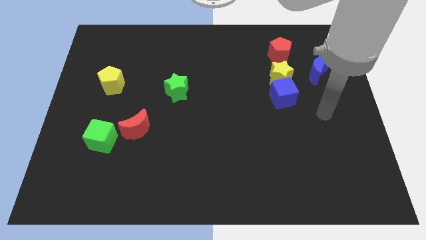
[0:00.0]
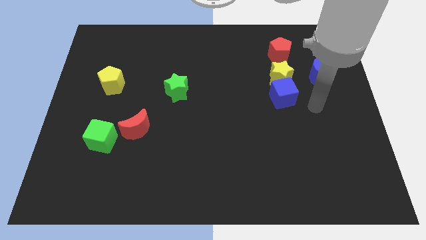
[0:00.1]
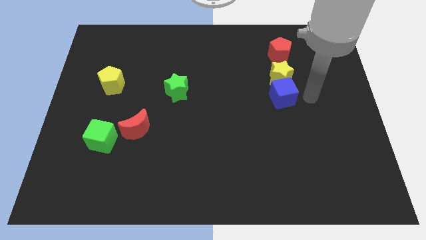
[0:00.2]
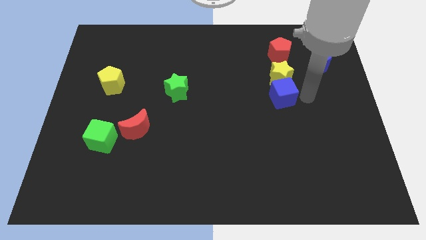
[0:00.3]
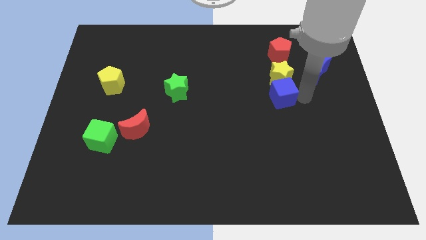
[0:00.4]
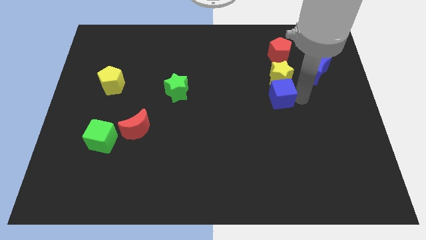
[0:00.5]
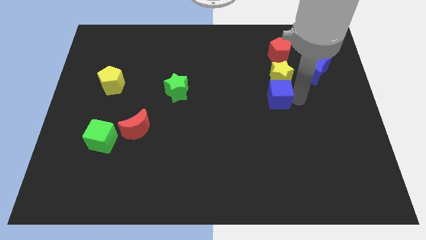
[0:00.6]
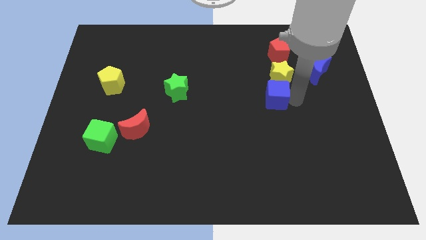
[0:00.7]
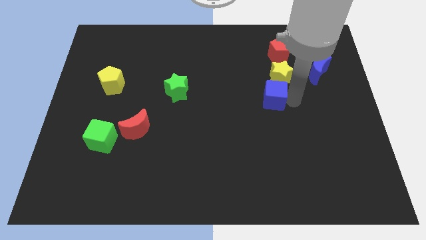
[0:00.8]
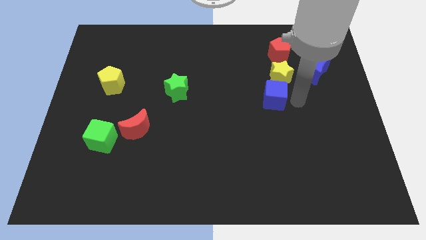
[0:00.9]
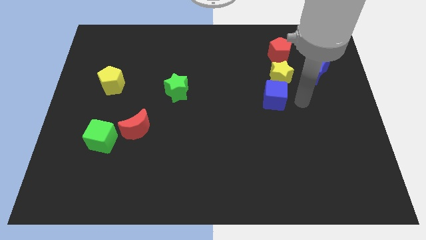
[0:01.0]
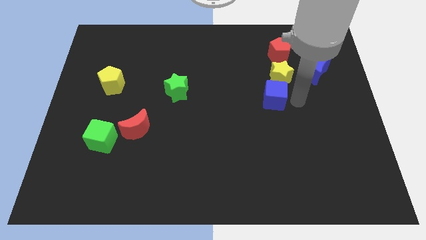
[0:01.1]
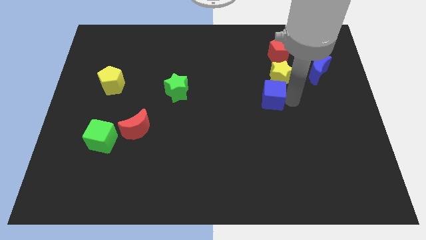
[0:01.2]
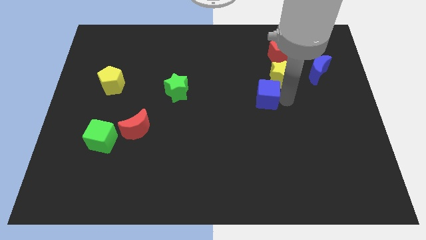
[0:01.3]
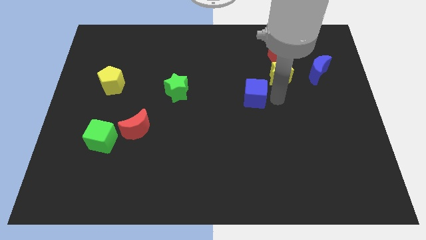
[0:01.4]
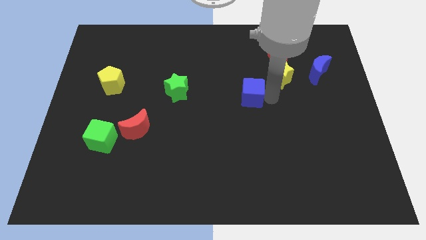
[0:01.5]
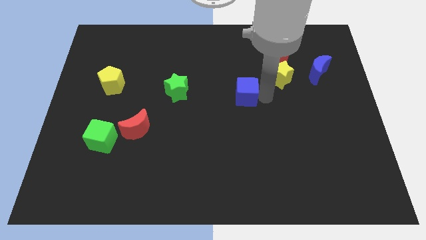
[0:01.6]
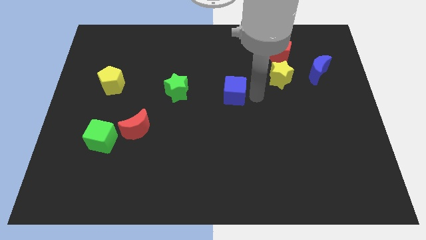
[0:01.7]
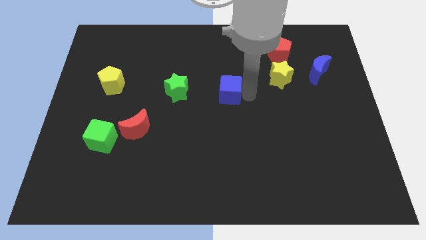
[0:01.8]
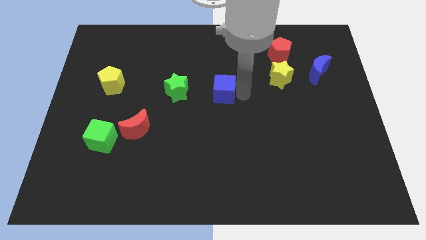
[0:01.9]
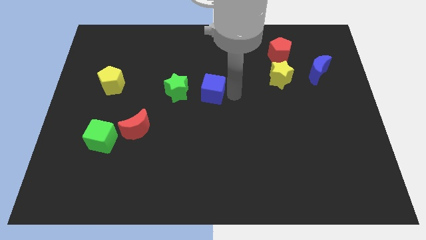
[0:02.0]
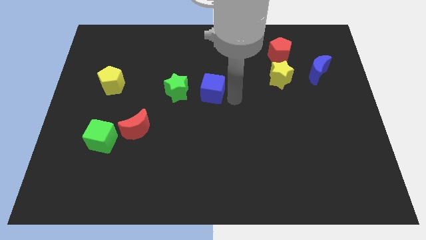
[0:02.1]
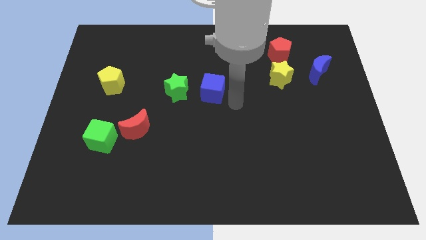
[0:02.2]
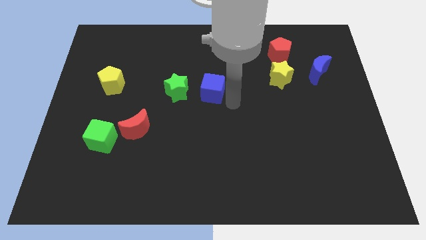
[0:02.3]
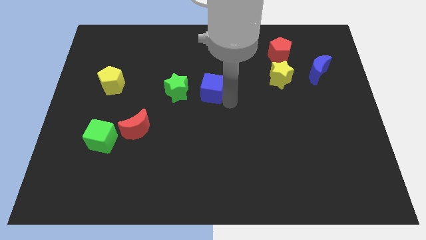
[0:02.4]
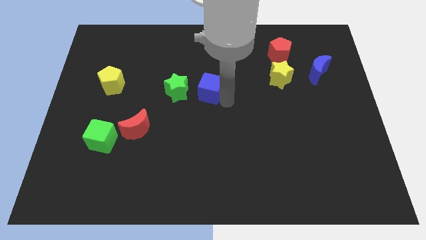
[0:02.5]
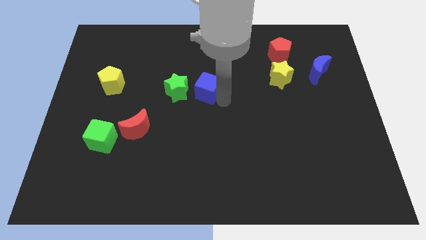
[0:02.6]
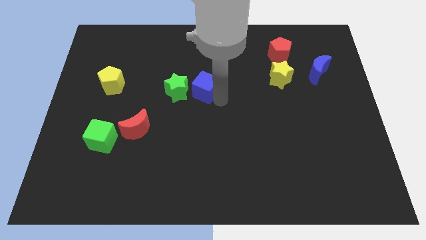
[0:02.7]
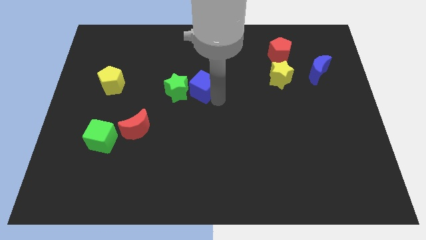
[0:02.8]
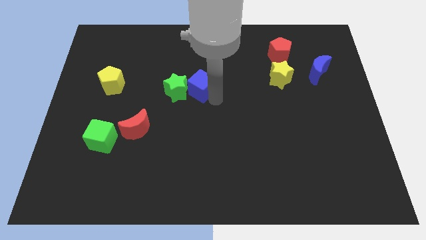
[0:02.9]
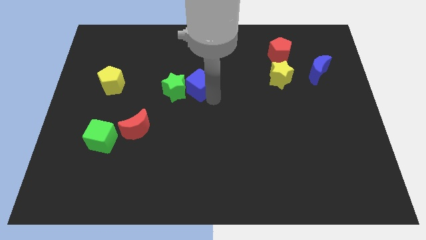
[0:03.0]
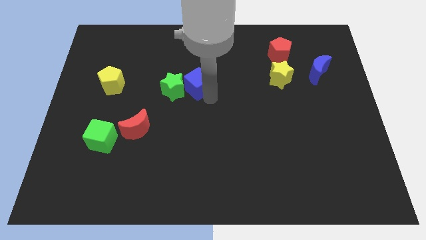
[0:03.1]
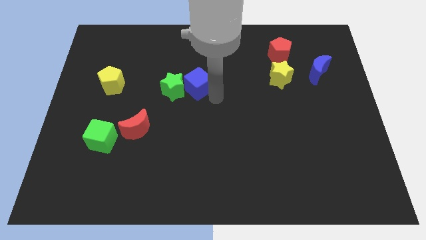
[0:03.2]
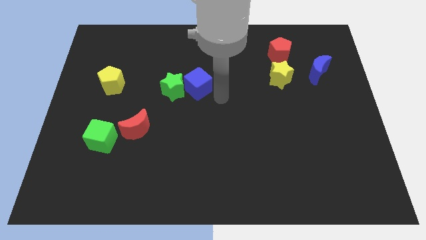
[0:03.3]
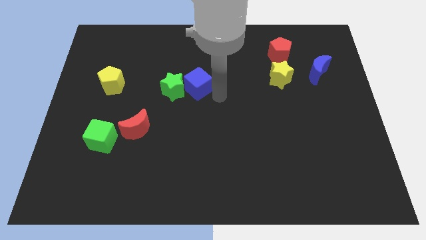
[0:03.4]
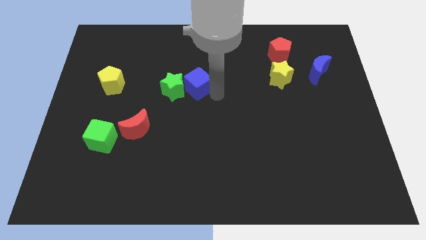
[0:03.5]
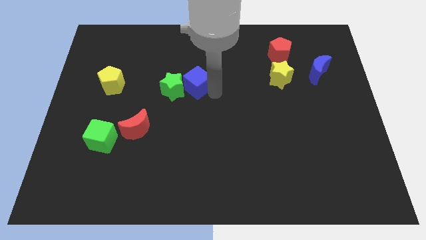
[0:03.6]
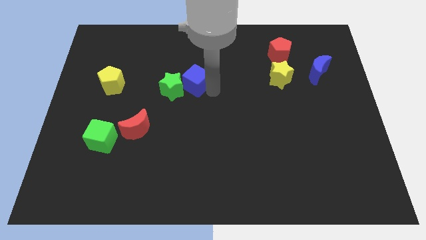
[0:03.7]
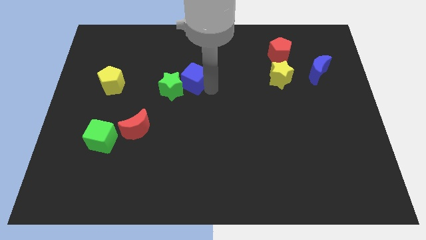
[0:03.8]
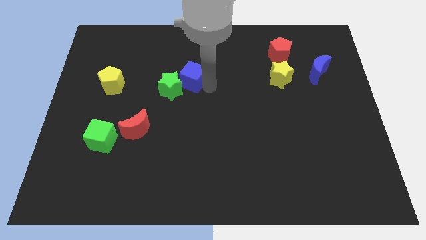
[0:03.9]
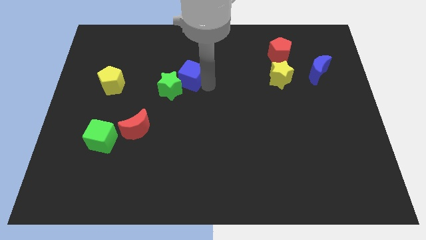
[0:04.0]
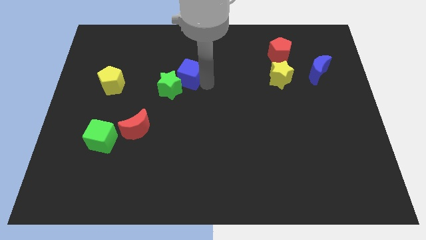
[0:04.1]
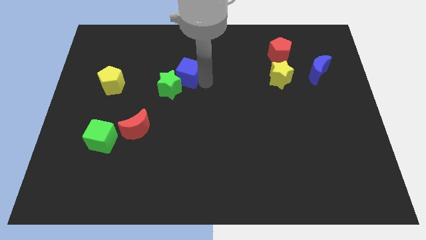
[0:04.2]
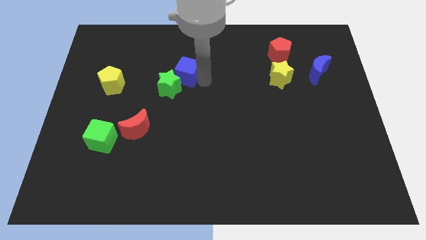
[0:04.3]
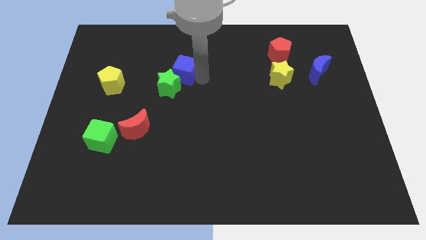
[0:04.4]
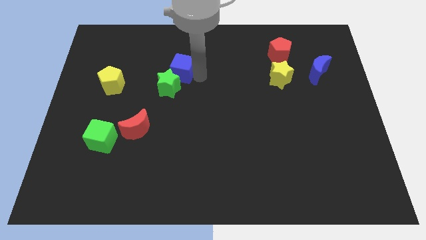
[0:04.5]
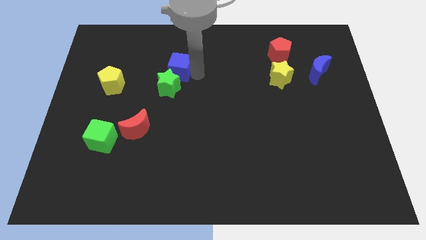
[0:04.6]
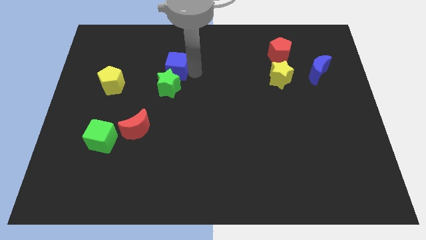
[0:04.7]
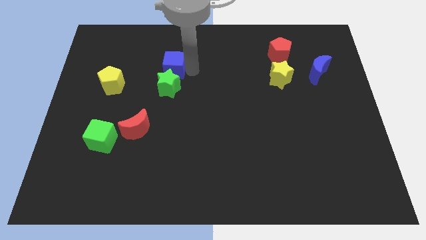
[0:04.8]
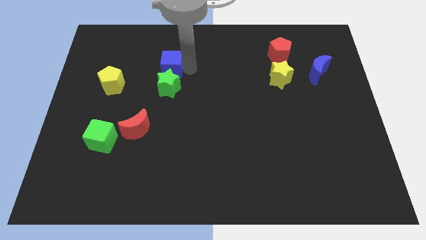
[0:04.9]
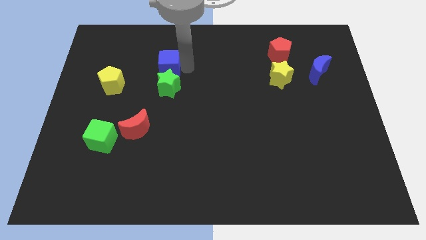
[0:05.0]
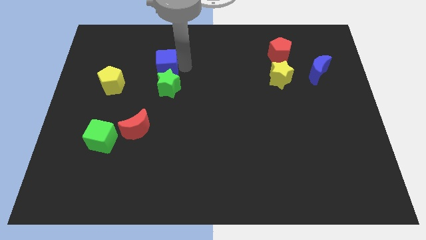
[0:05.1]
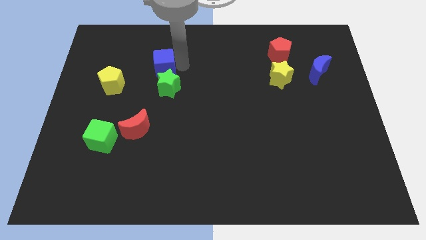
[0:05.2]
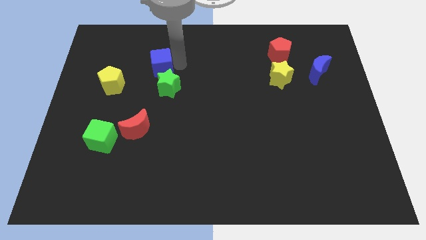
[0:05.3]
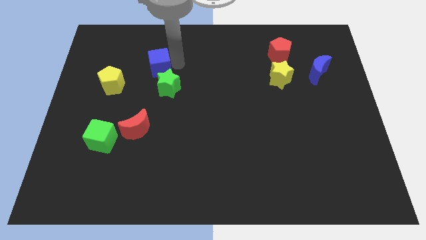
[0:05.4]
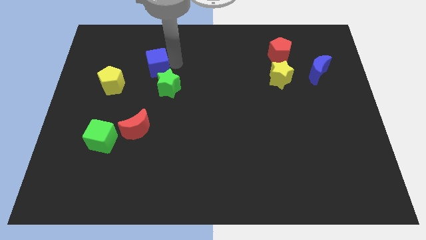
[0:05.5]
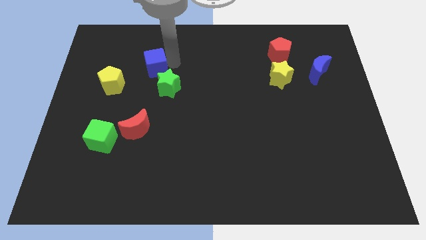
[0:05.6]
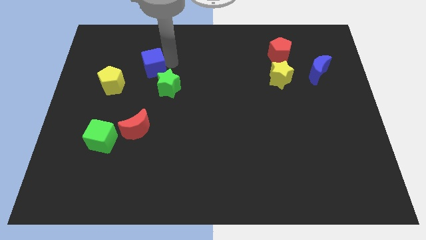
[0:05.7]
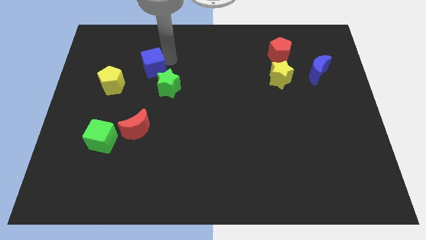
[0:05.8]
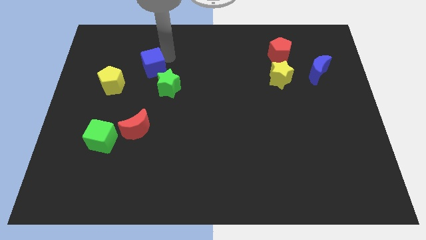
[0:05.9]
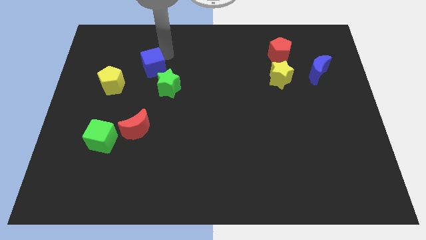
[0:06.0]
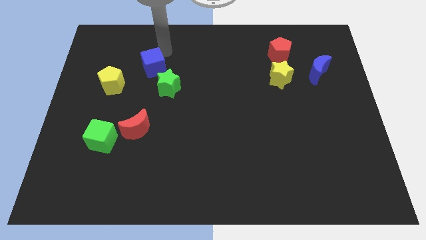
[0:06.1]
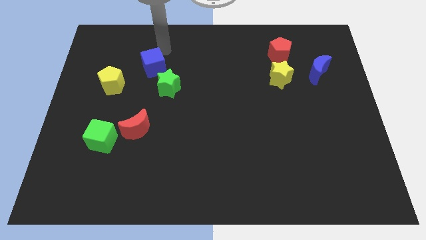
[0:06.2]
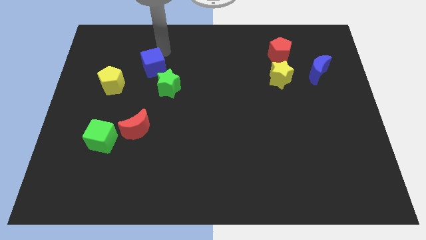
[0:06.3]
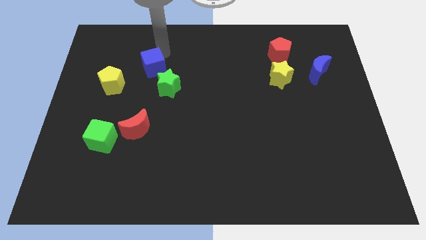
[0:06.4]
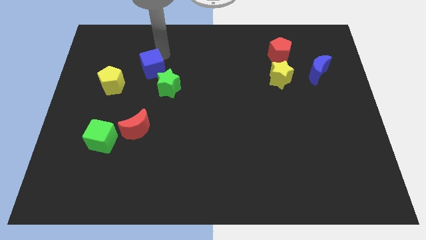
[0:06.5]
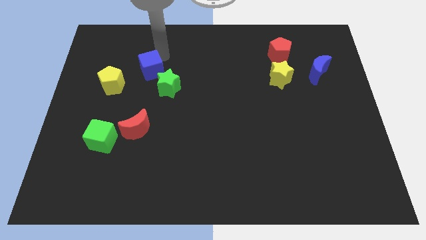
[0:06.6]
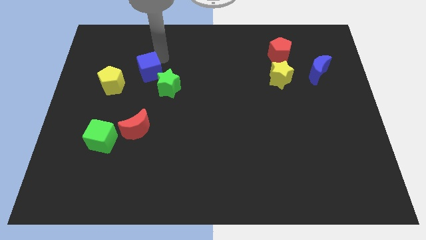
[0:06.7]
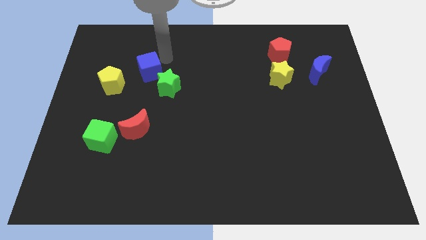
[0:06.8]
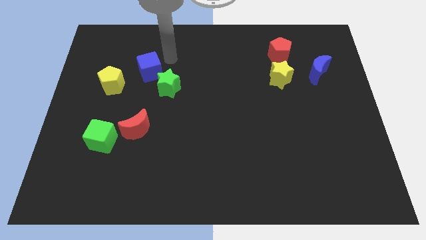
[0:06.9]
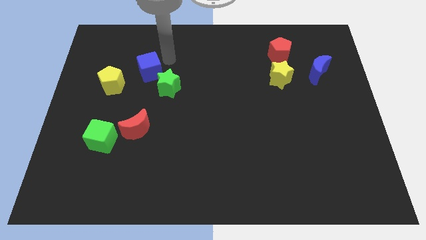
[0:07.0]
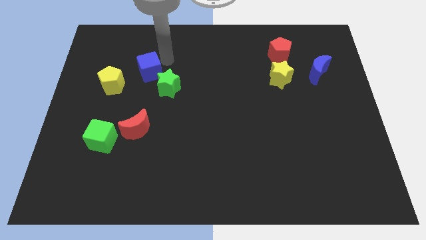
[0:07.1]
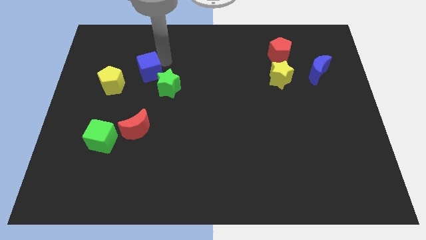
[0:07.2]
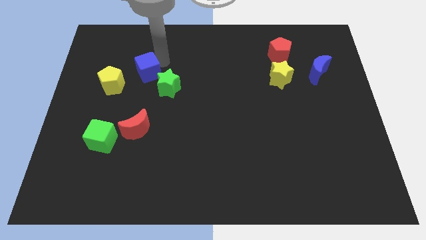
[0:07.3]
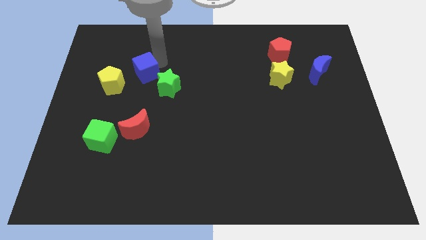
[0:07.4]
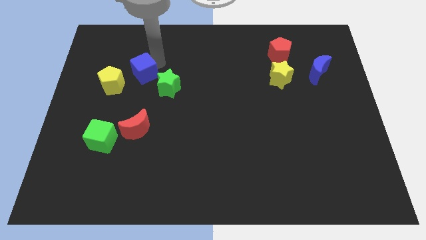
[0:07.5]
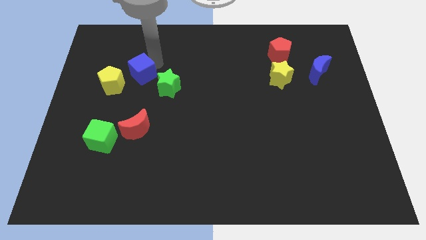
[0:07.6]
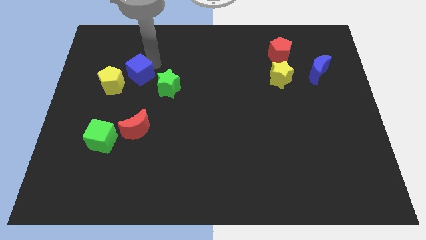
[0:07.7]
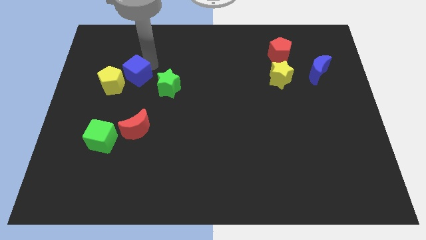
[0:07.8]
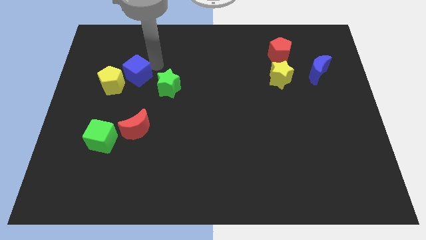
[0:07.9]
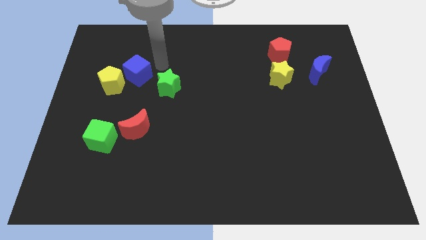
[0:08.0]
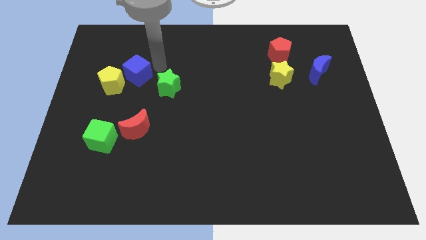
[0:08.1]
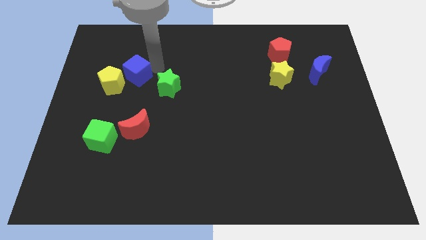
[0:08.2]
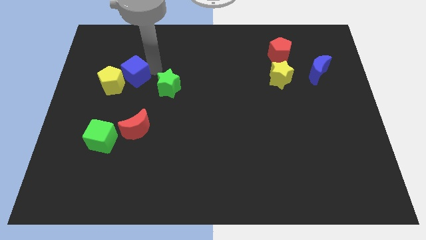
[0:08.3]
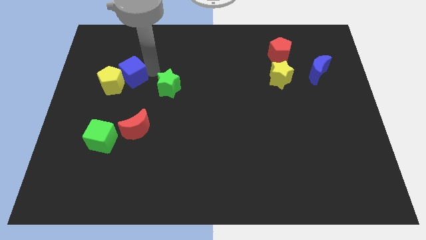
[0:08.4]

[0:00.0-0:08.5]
slide the blue cube towards the yellow pentagon
